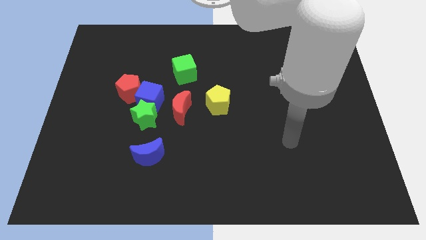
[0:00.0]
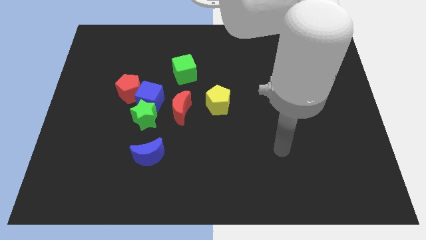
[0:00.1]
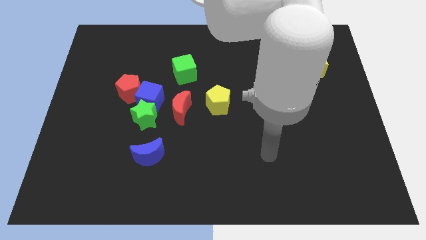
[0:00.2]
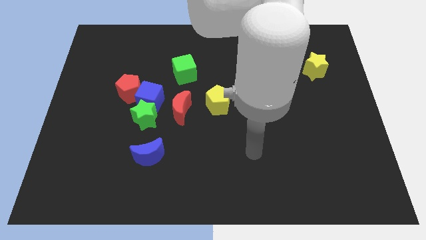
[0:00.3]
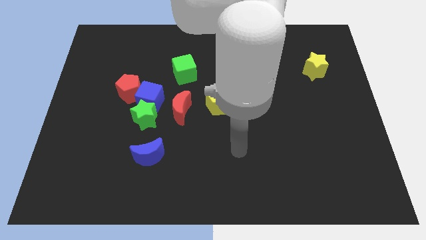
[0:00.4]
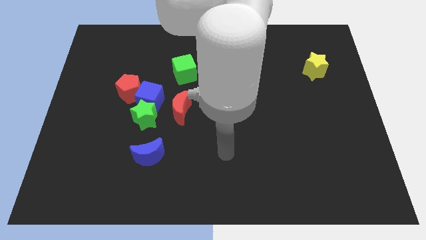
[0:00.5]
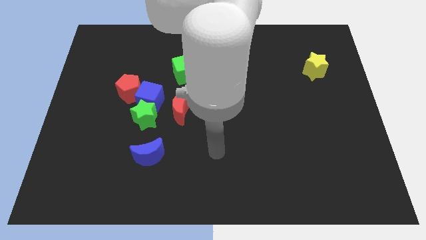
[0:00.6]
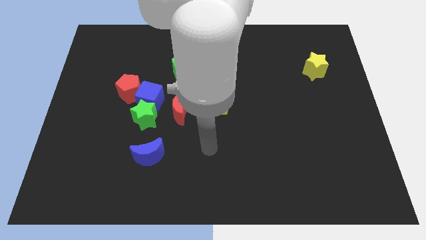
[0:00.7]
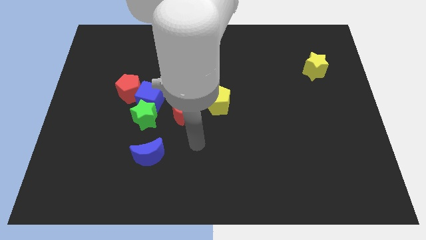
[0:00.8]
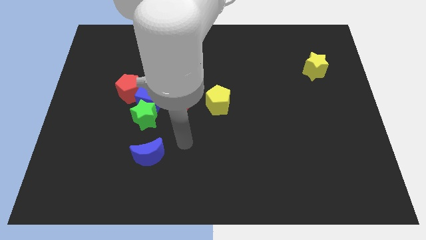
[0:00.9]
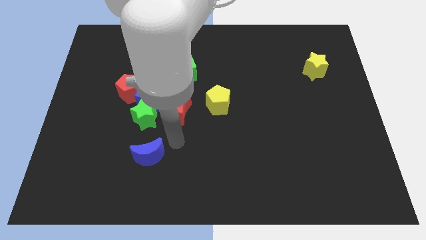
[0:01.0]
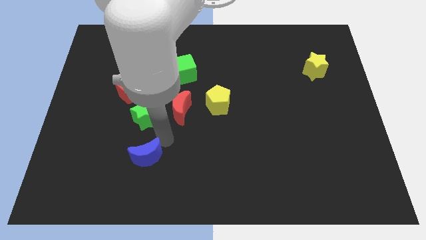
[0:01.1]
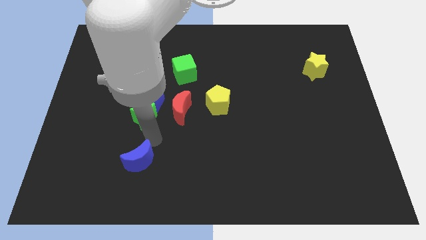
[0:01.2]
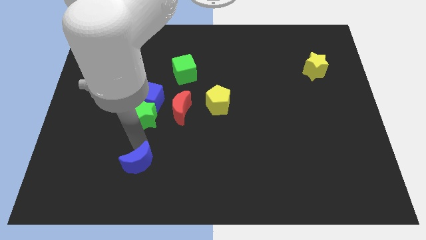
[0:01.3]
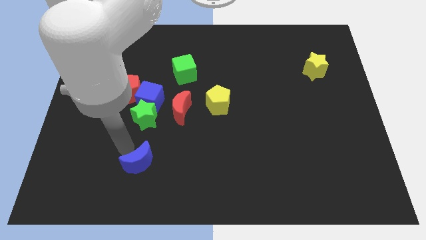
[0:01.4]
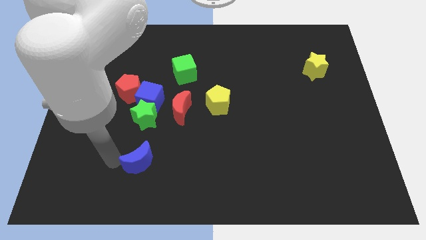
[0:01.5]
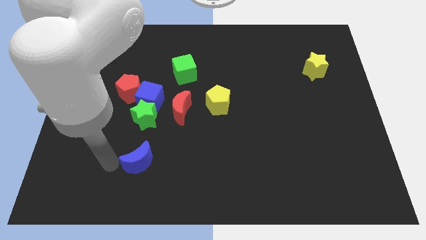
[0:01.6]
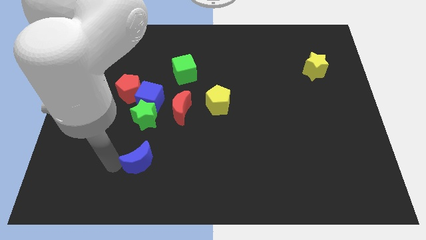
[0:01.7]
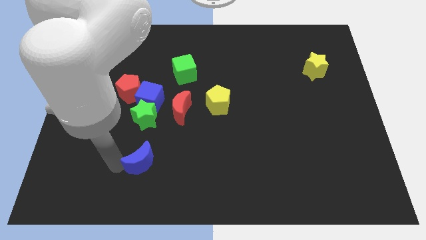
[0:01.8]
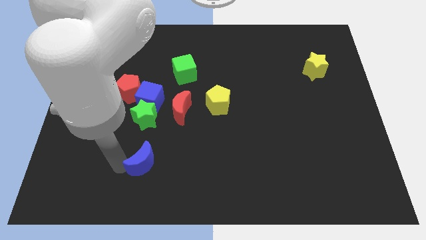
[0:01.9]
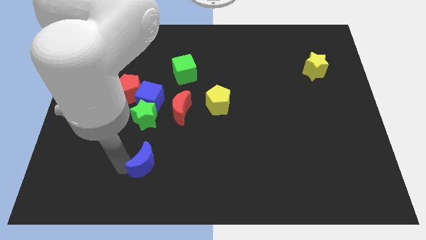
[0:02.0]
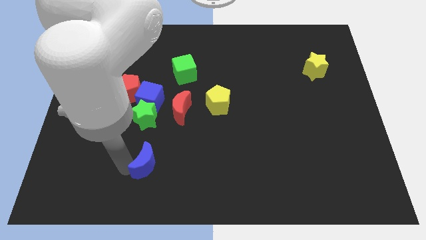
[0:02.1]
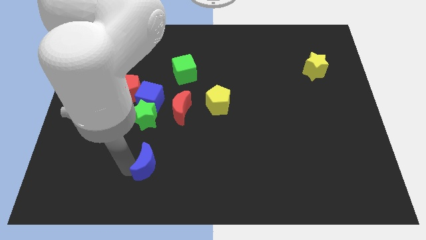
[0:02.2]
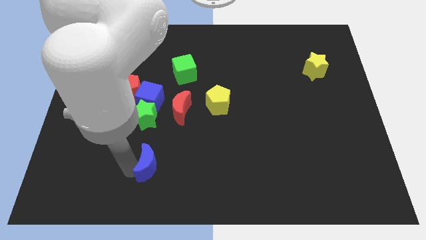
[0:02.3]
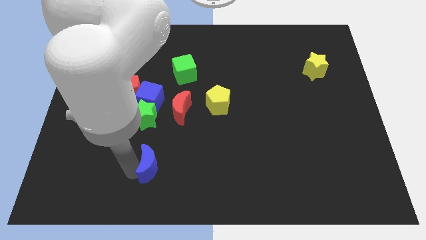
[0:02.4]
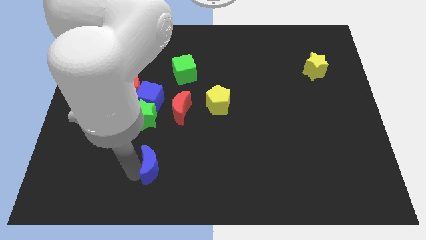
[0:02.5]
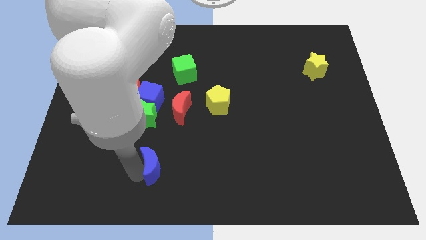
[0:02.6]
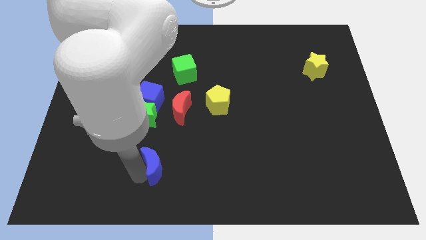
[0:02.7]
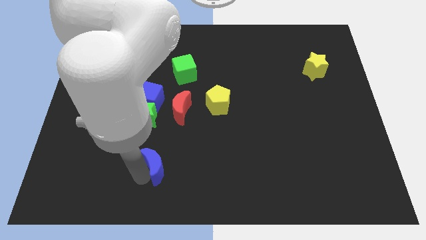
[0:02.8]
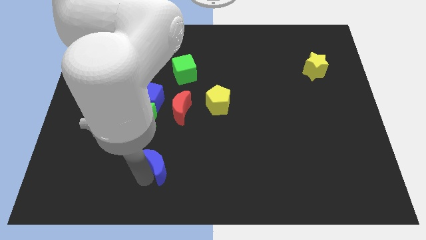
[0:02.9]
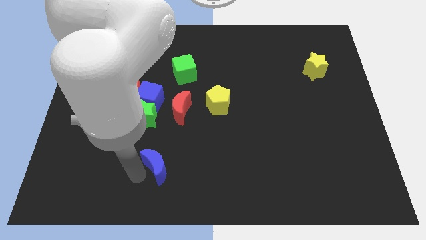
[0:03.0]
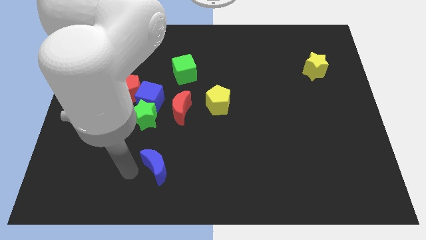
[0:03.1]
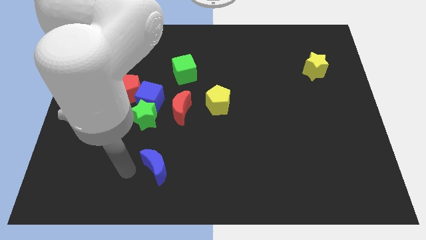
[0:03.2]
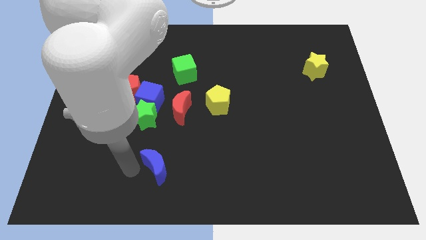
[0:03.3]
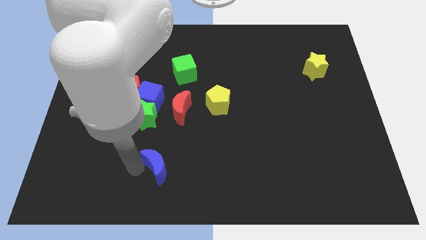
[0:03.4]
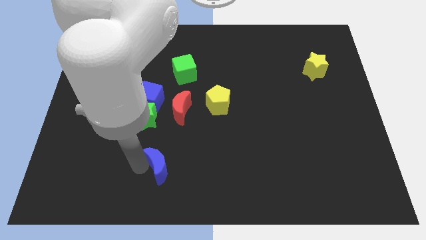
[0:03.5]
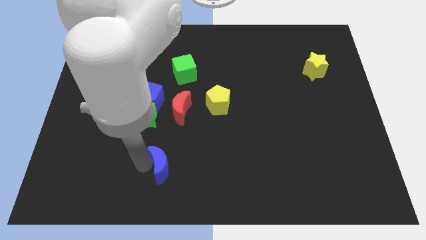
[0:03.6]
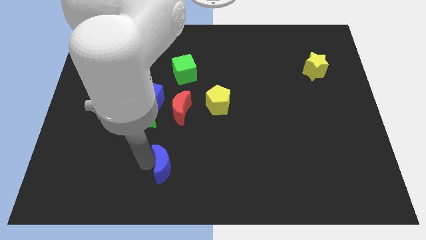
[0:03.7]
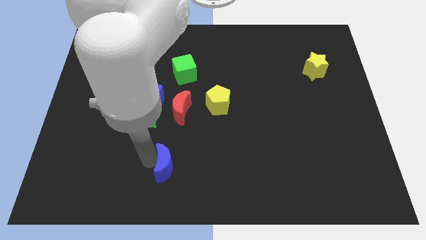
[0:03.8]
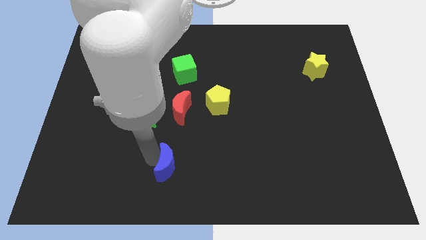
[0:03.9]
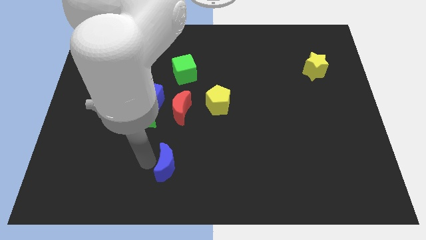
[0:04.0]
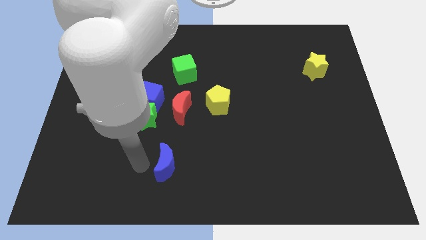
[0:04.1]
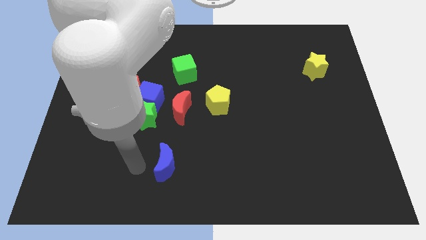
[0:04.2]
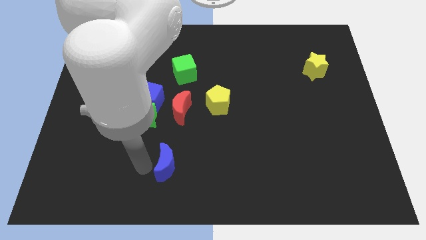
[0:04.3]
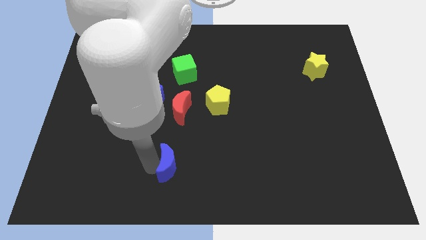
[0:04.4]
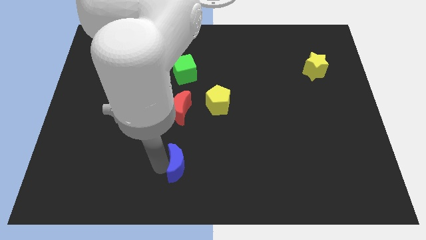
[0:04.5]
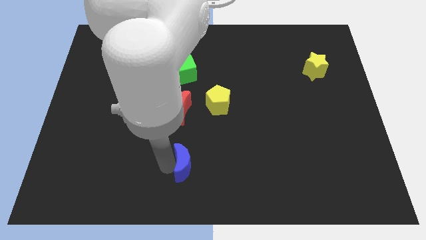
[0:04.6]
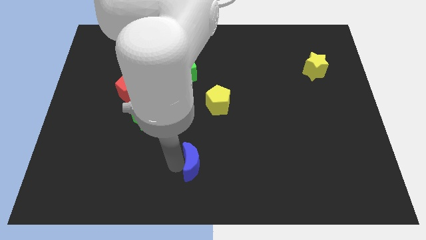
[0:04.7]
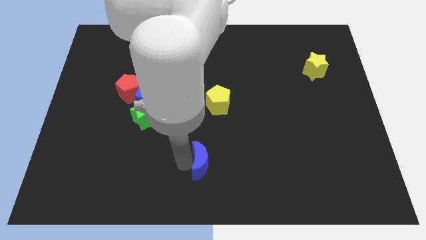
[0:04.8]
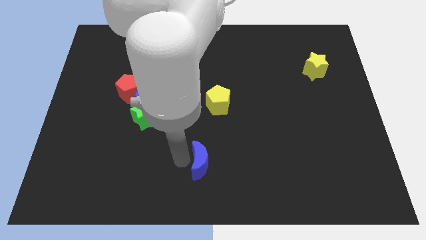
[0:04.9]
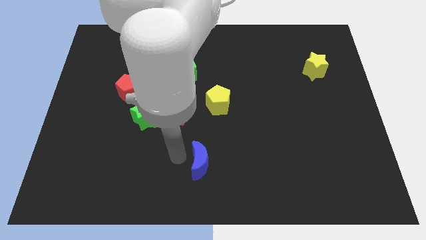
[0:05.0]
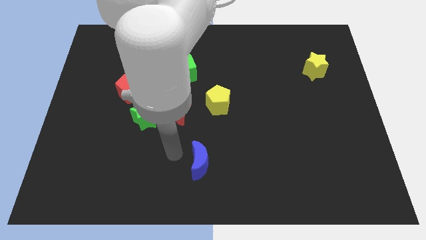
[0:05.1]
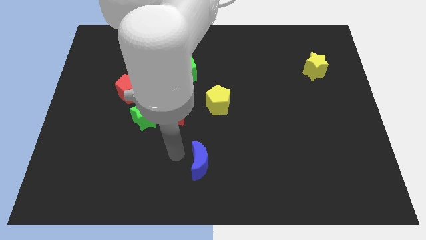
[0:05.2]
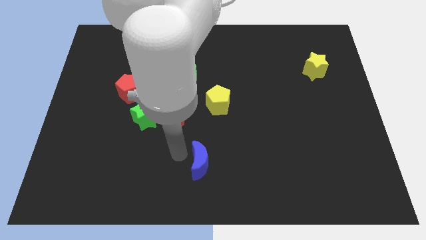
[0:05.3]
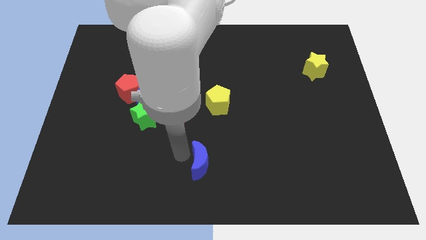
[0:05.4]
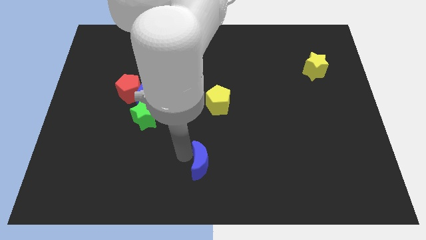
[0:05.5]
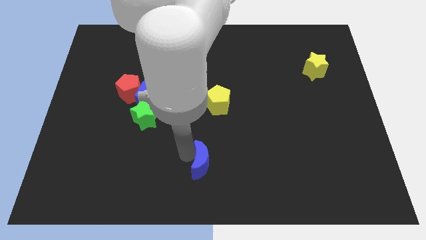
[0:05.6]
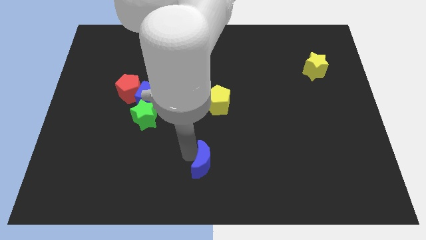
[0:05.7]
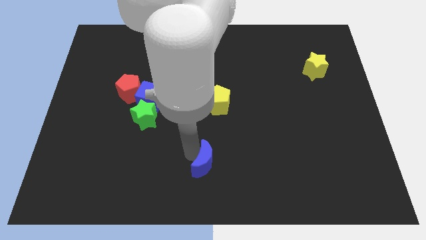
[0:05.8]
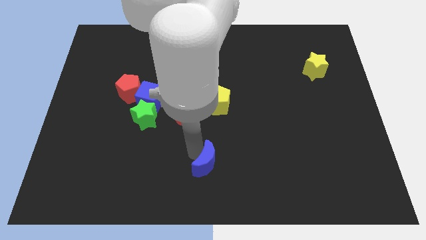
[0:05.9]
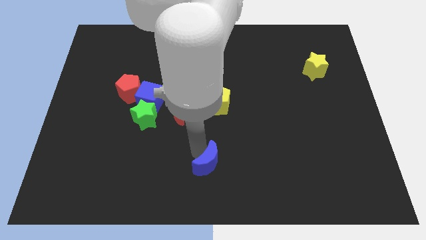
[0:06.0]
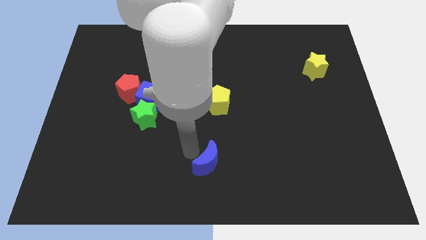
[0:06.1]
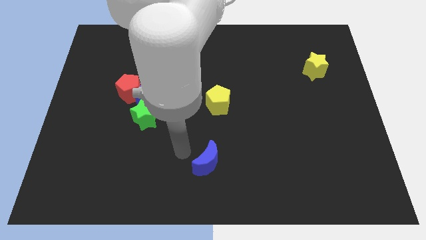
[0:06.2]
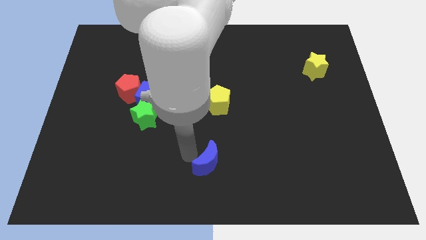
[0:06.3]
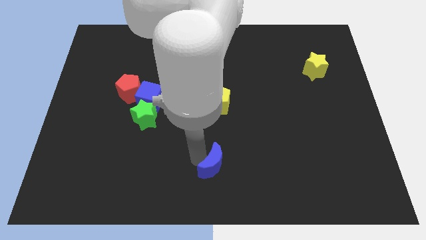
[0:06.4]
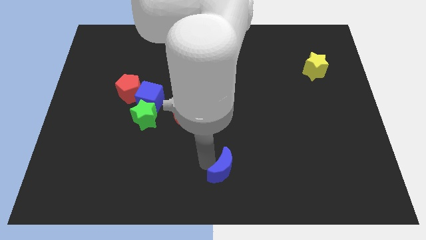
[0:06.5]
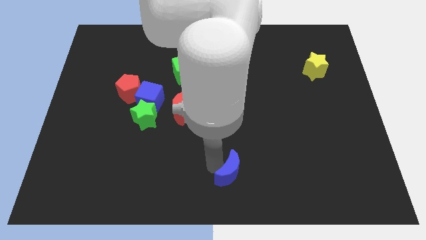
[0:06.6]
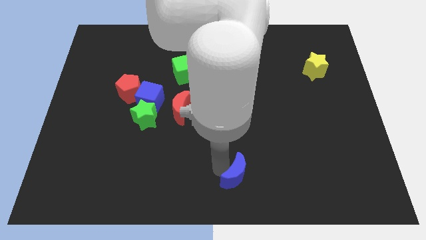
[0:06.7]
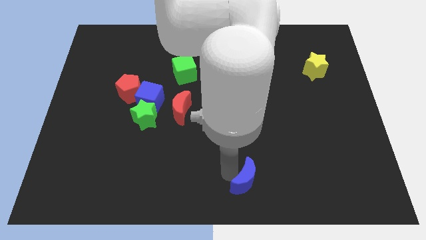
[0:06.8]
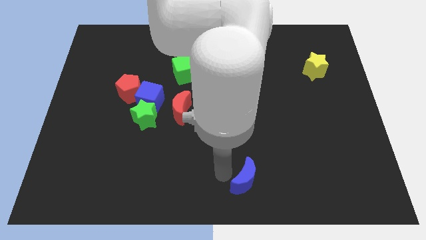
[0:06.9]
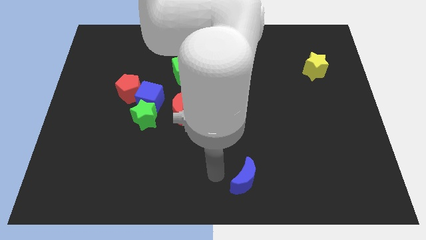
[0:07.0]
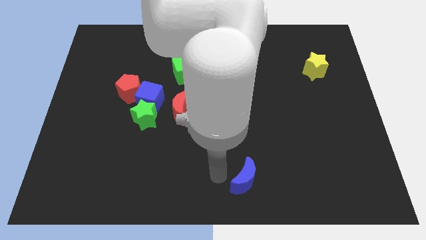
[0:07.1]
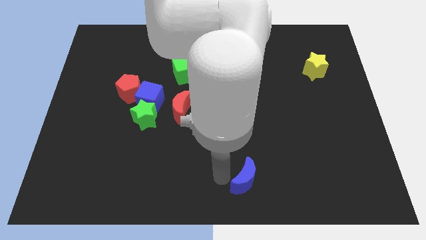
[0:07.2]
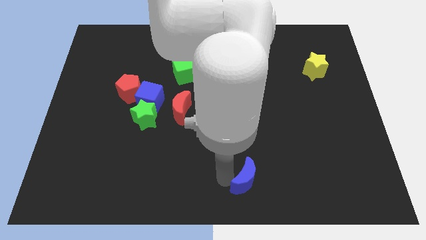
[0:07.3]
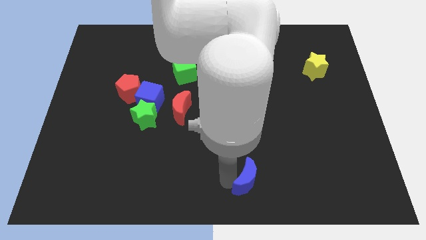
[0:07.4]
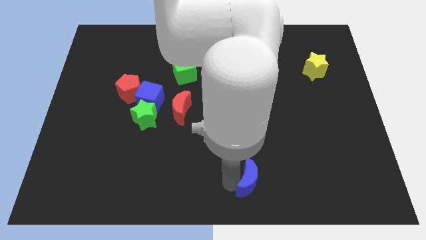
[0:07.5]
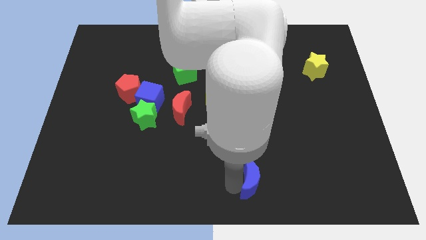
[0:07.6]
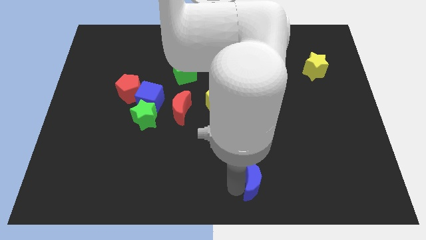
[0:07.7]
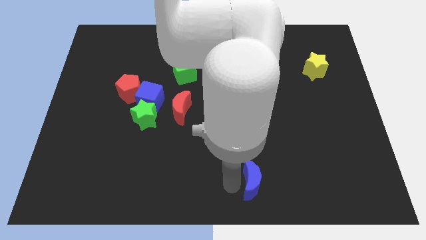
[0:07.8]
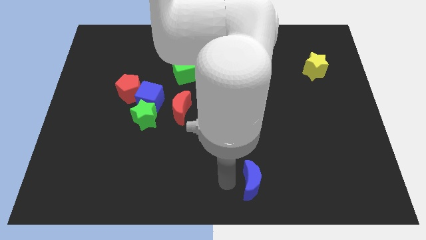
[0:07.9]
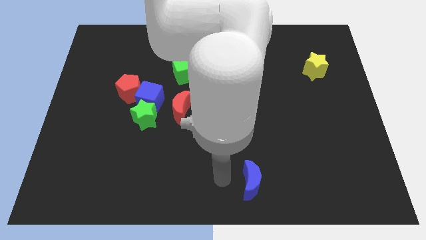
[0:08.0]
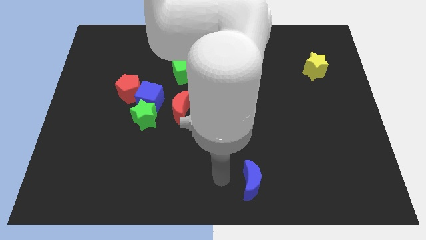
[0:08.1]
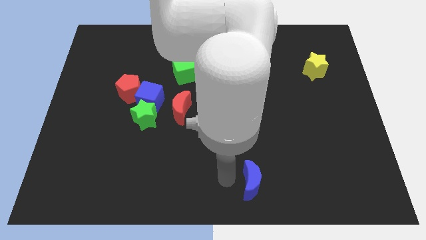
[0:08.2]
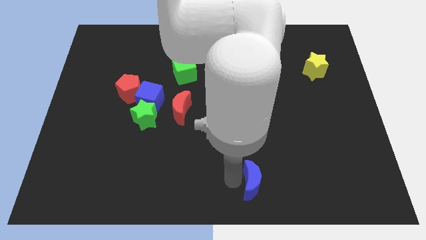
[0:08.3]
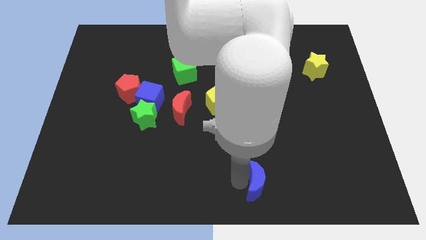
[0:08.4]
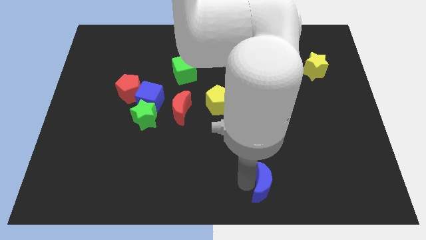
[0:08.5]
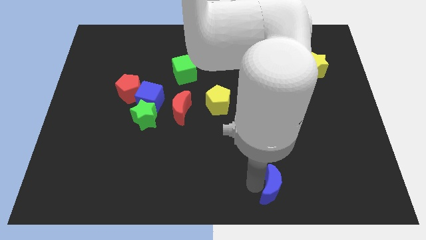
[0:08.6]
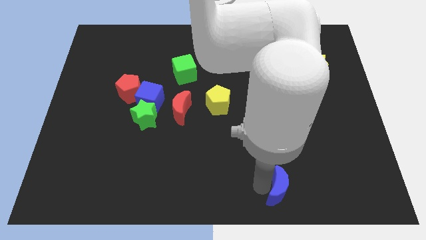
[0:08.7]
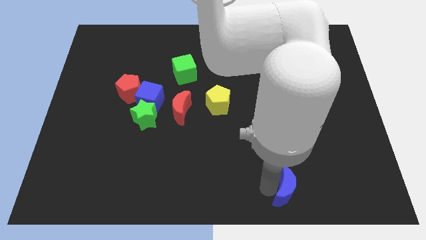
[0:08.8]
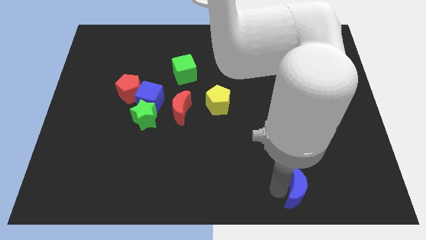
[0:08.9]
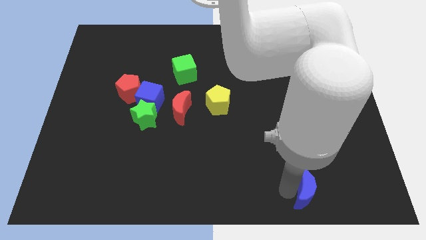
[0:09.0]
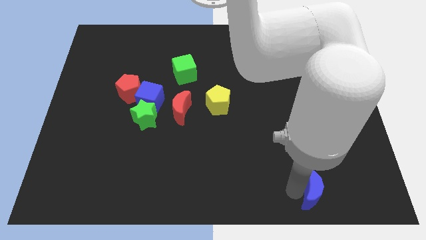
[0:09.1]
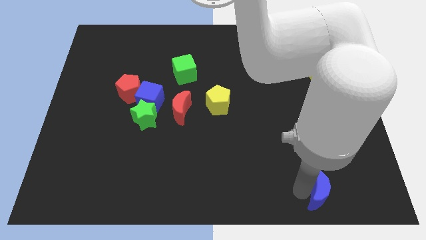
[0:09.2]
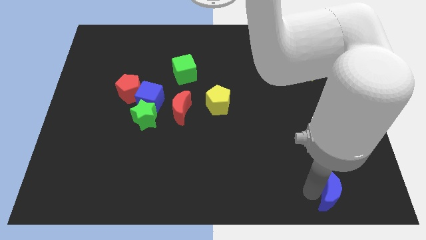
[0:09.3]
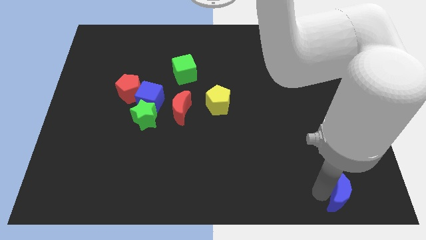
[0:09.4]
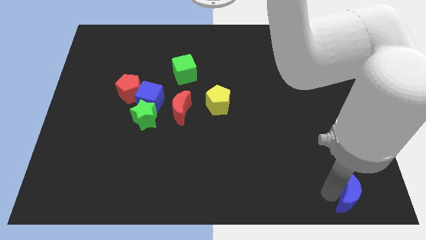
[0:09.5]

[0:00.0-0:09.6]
move the blue moon to the bottom right of the board
